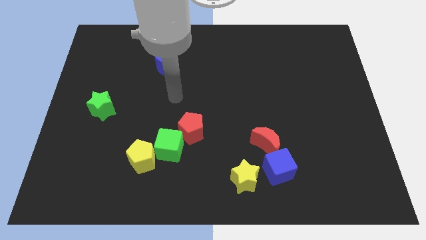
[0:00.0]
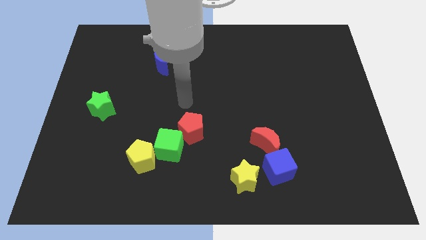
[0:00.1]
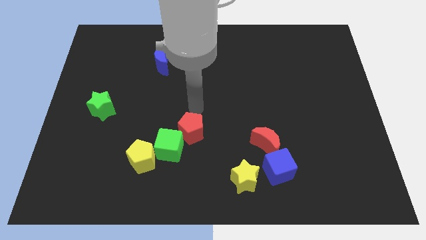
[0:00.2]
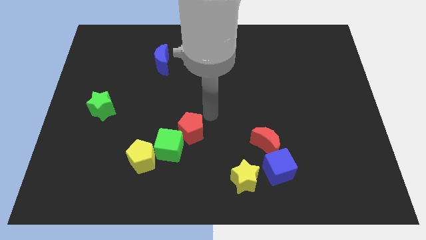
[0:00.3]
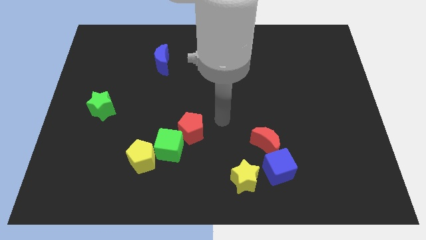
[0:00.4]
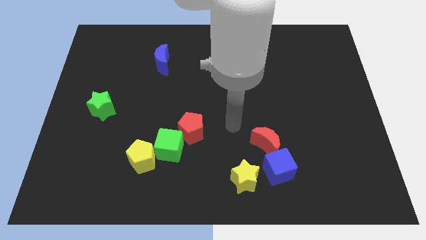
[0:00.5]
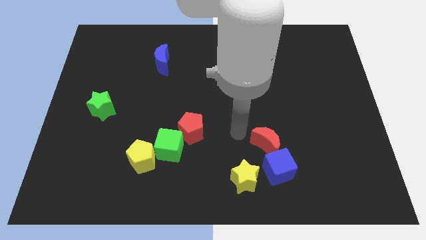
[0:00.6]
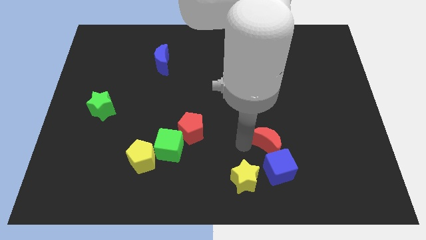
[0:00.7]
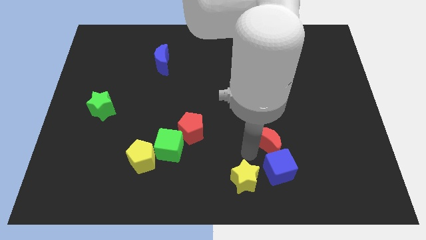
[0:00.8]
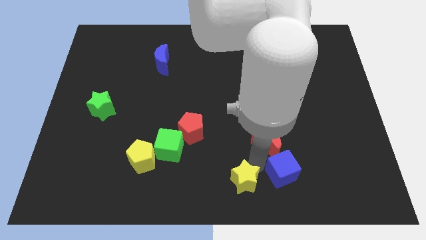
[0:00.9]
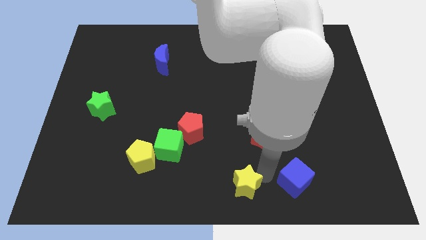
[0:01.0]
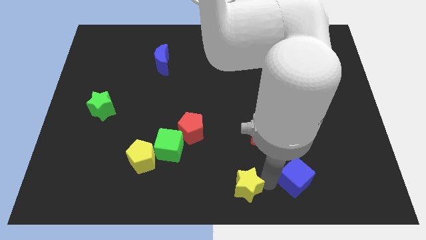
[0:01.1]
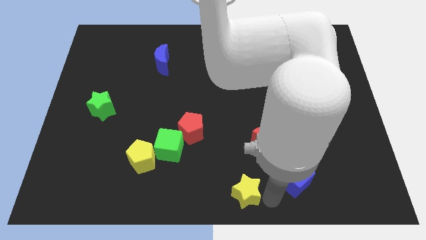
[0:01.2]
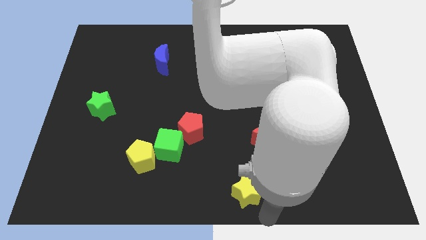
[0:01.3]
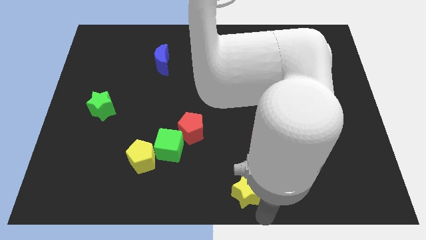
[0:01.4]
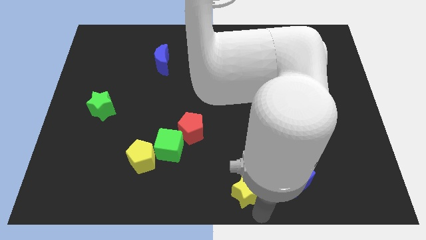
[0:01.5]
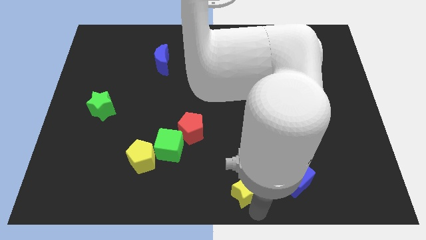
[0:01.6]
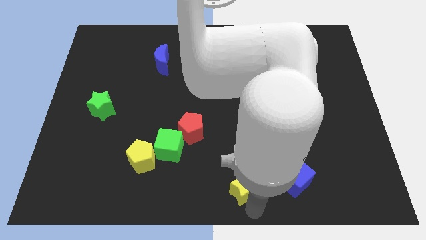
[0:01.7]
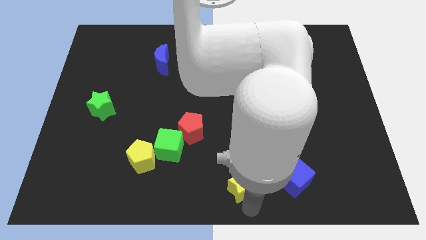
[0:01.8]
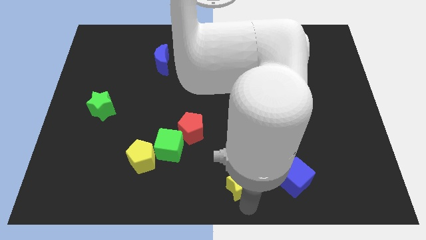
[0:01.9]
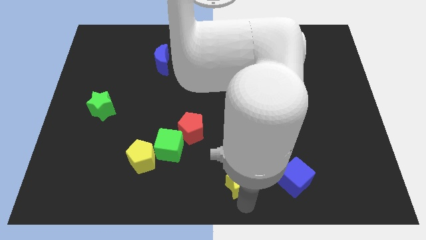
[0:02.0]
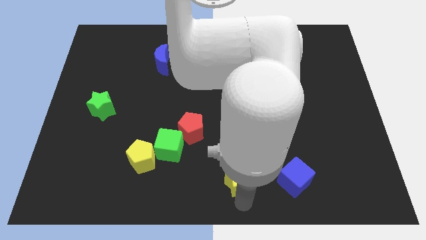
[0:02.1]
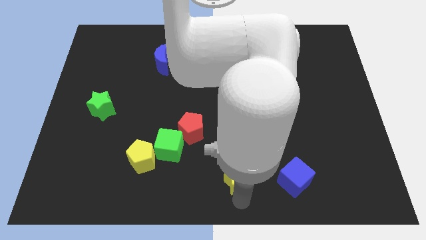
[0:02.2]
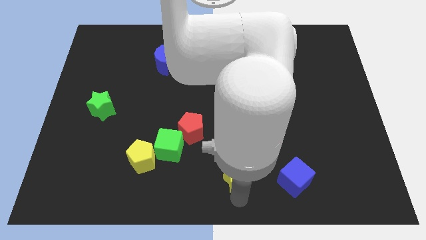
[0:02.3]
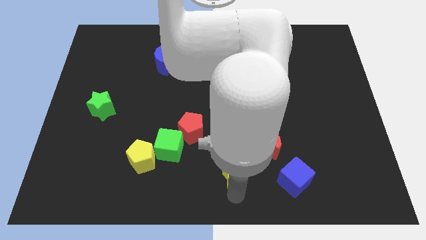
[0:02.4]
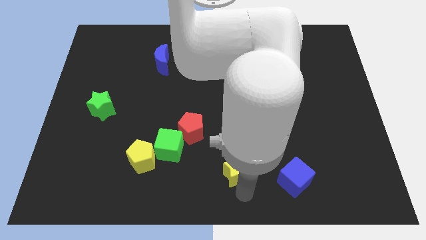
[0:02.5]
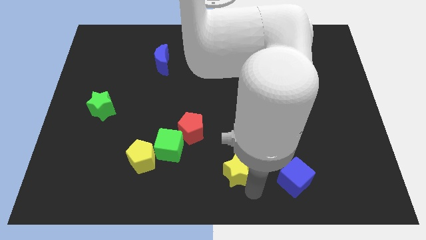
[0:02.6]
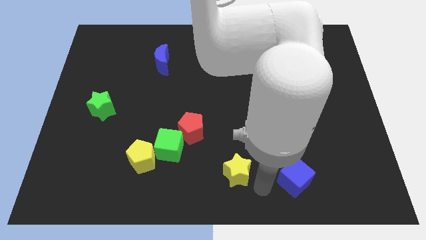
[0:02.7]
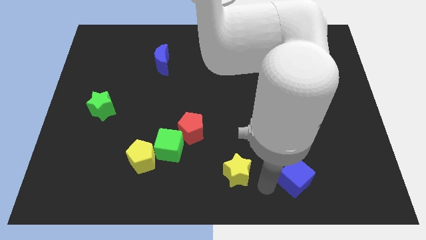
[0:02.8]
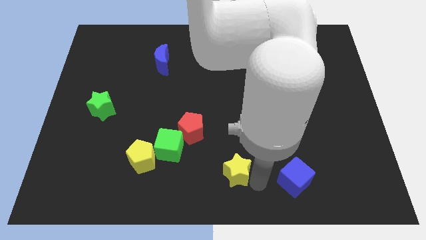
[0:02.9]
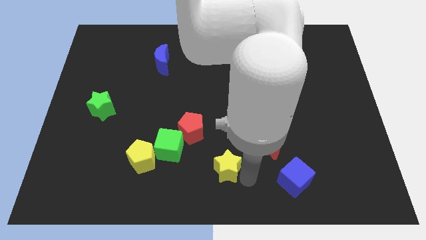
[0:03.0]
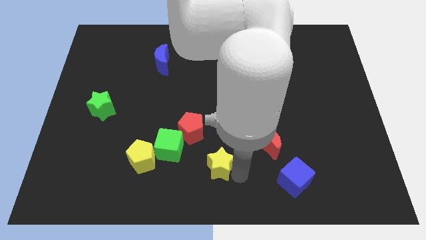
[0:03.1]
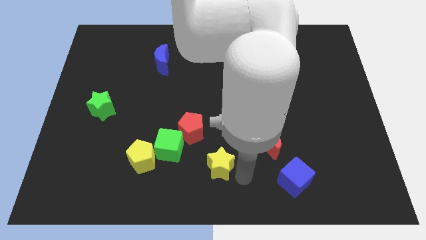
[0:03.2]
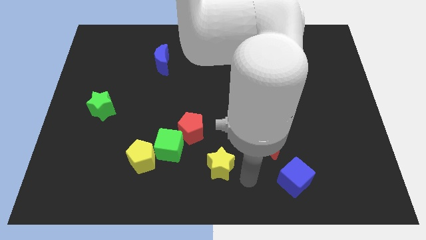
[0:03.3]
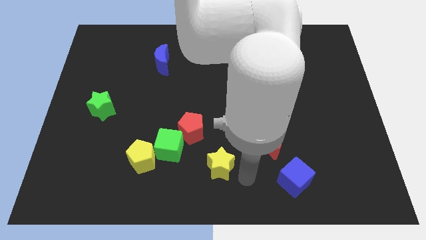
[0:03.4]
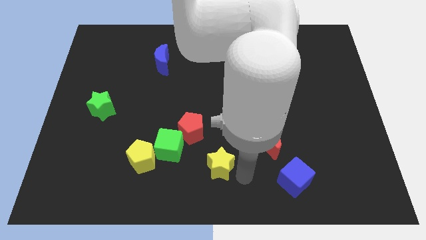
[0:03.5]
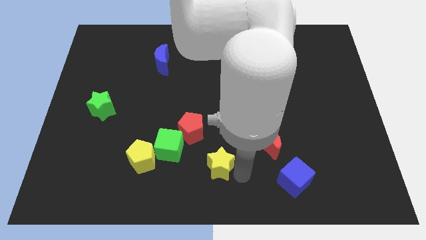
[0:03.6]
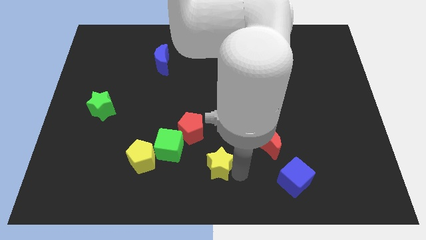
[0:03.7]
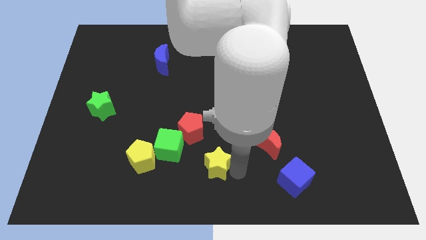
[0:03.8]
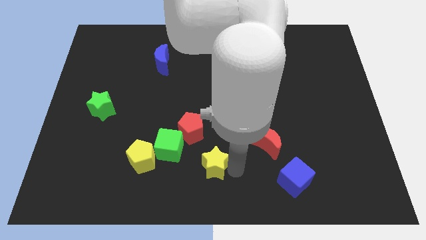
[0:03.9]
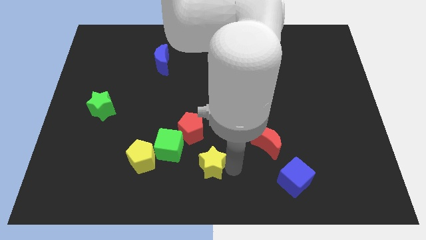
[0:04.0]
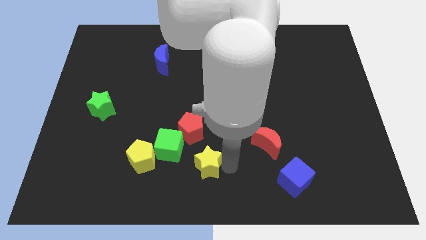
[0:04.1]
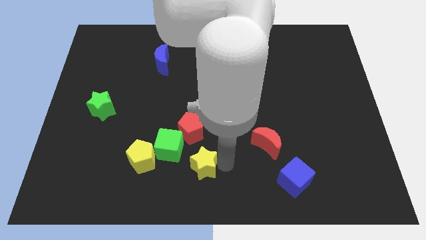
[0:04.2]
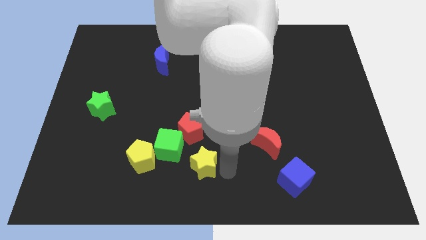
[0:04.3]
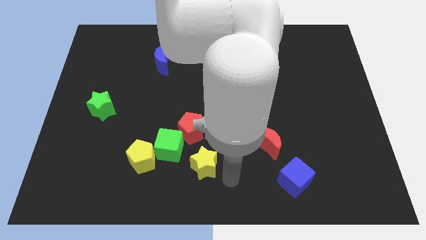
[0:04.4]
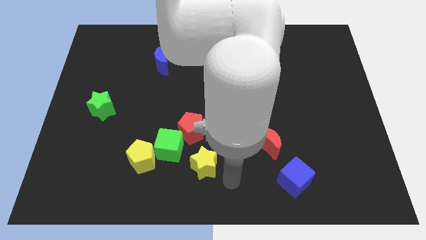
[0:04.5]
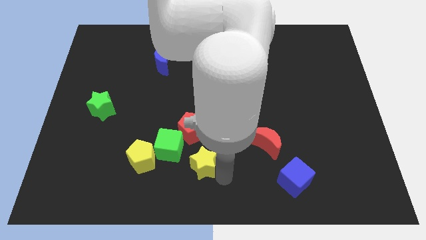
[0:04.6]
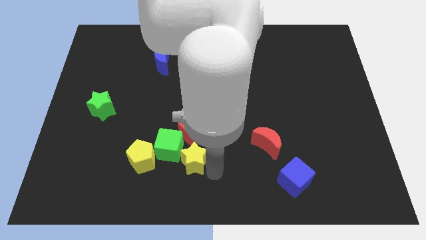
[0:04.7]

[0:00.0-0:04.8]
put the yellow star to the green cube

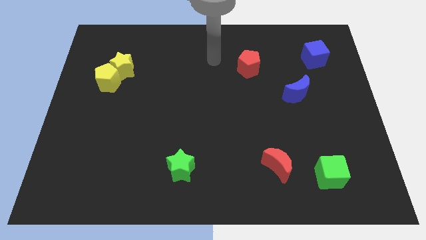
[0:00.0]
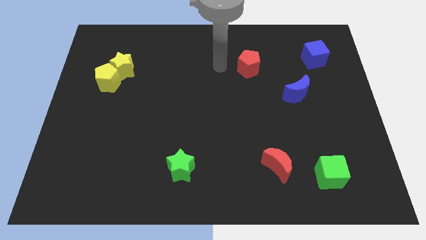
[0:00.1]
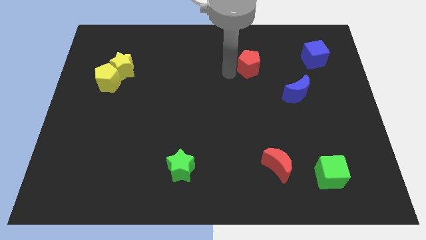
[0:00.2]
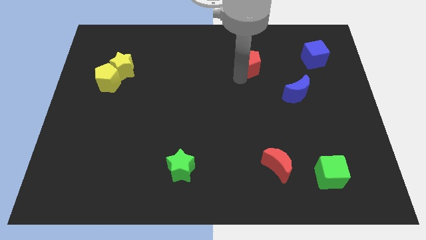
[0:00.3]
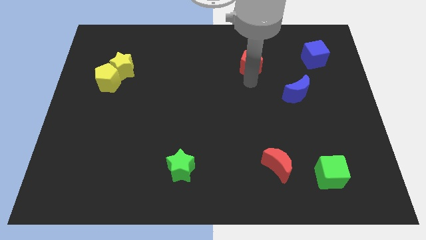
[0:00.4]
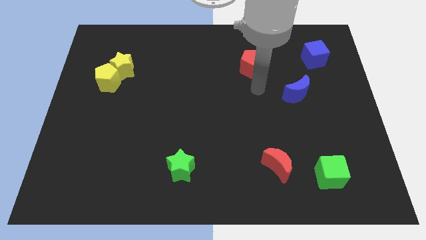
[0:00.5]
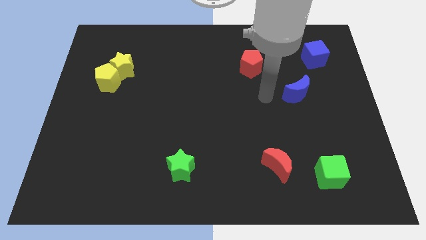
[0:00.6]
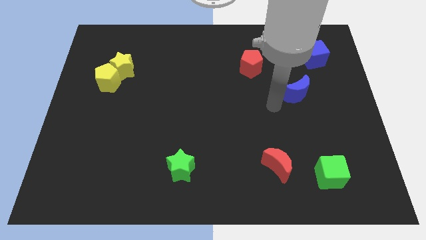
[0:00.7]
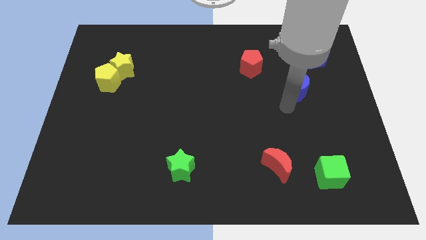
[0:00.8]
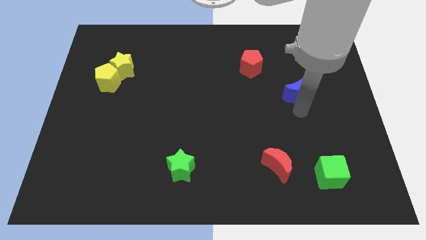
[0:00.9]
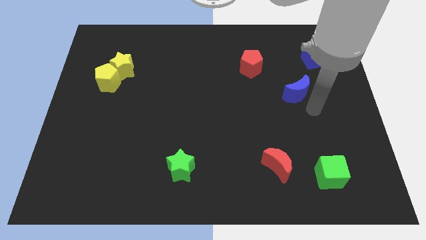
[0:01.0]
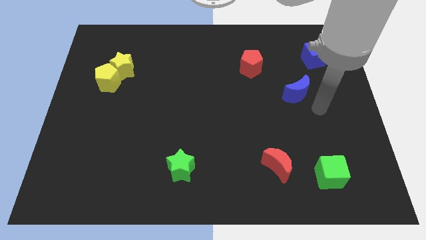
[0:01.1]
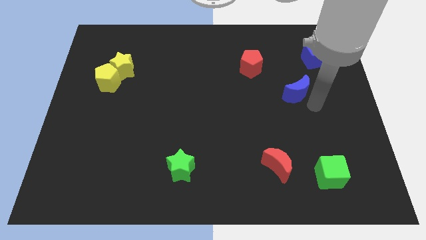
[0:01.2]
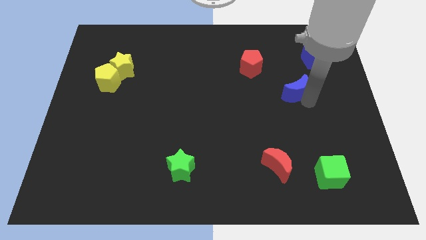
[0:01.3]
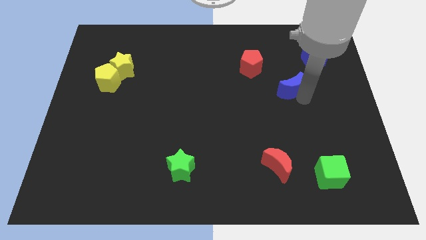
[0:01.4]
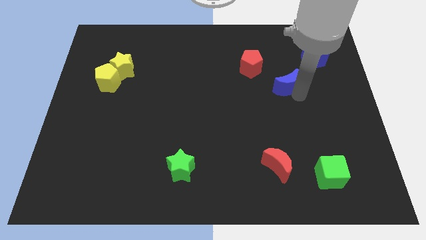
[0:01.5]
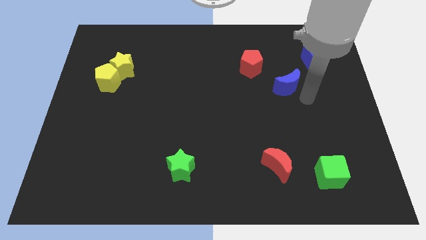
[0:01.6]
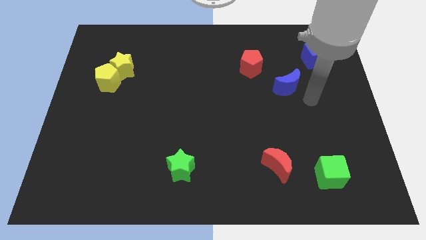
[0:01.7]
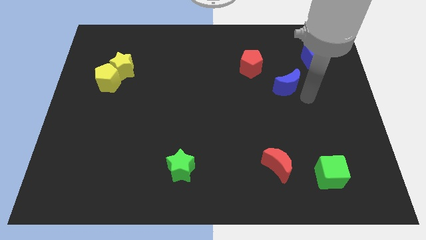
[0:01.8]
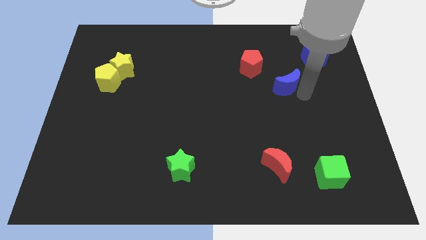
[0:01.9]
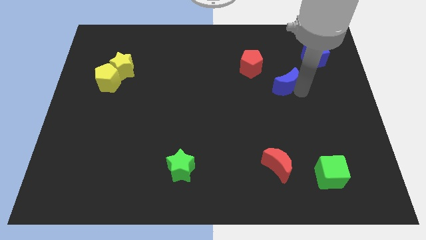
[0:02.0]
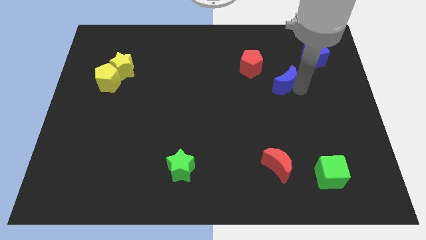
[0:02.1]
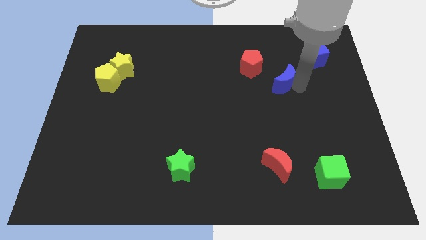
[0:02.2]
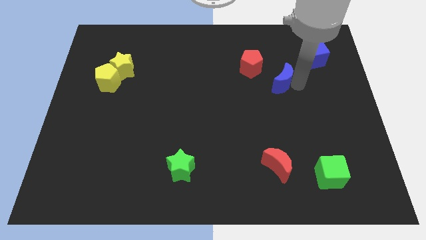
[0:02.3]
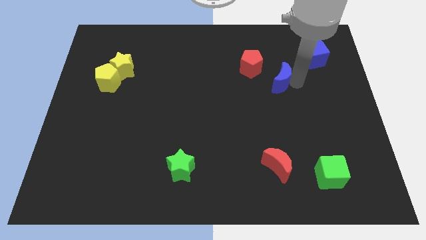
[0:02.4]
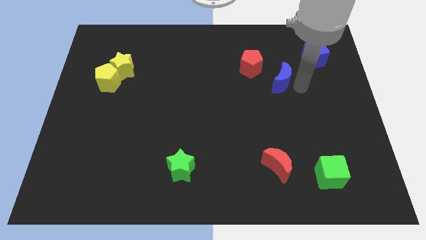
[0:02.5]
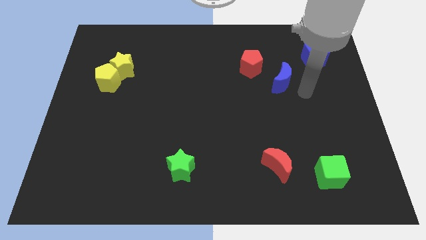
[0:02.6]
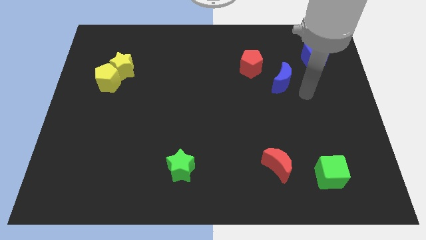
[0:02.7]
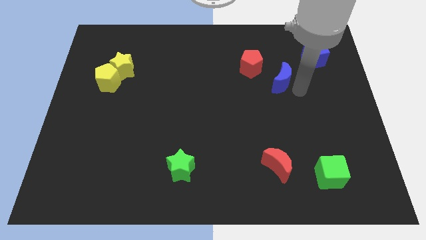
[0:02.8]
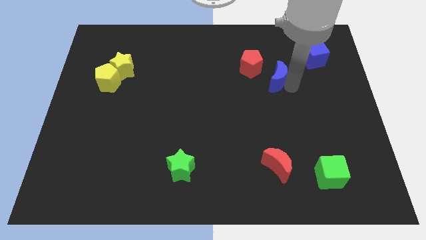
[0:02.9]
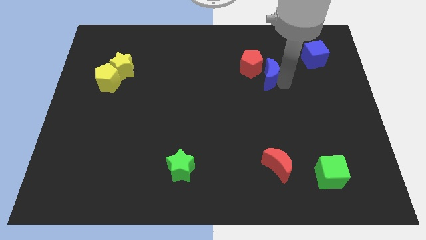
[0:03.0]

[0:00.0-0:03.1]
move the blue moon to the red pentagon

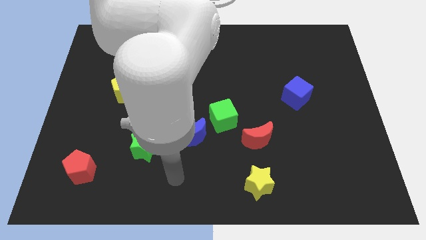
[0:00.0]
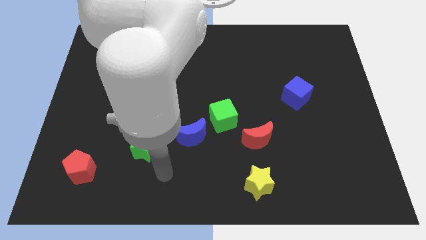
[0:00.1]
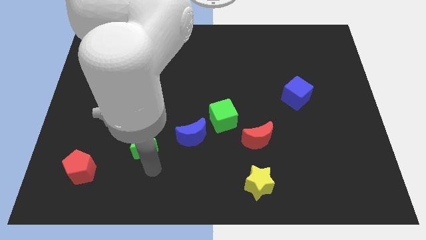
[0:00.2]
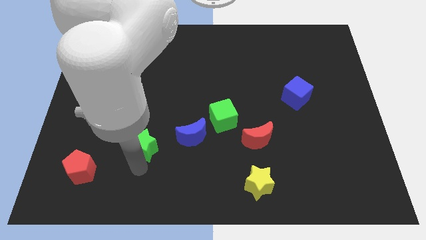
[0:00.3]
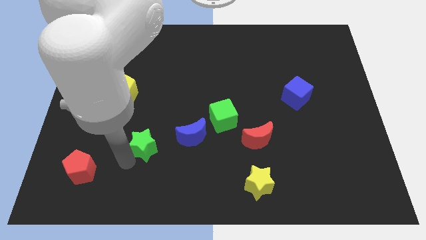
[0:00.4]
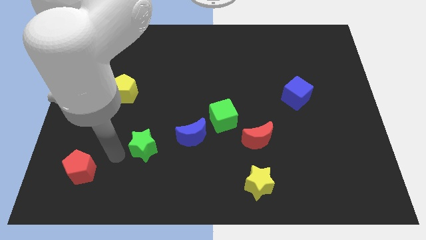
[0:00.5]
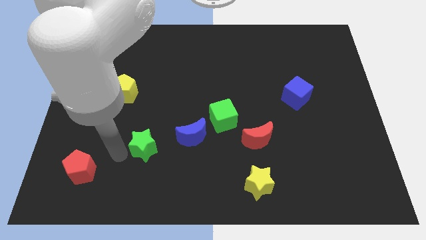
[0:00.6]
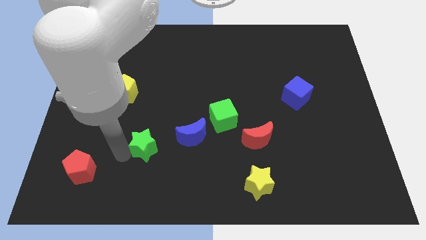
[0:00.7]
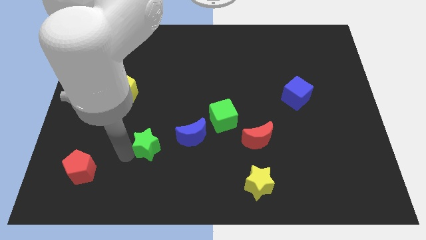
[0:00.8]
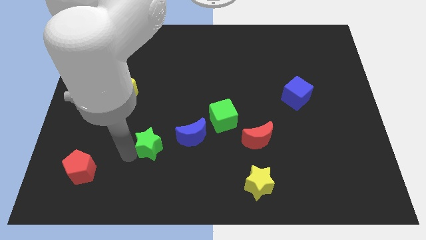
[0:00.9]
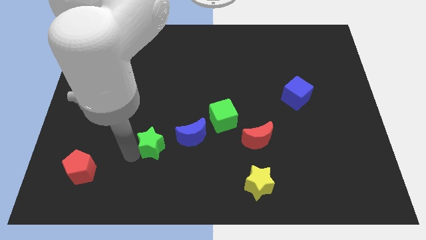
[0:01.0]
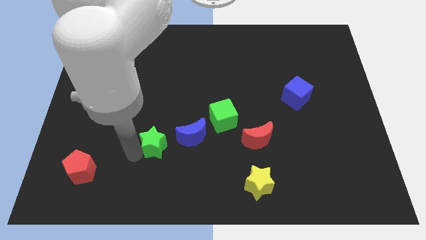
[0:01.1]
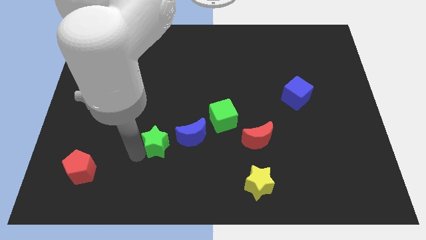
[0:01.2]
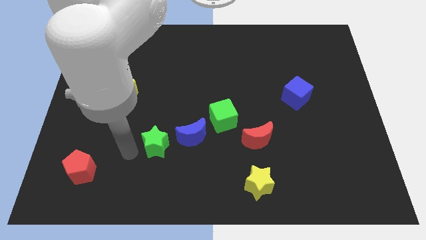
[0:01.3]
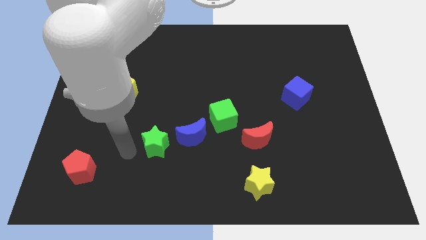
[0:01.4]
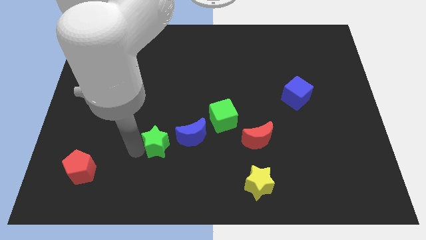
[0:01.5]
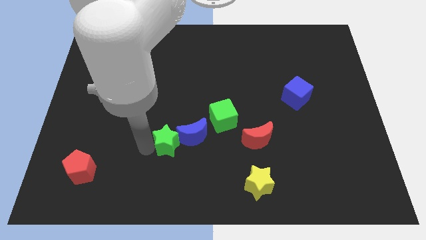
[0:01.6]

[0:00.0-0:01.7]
slide the green star next to the blue moon
